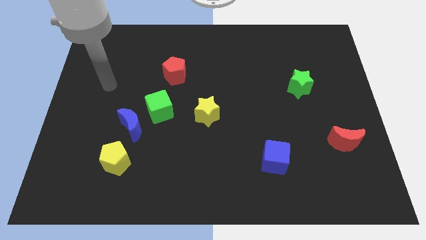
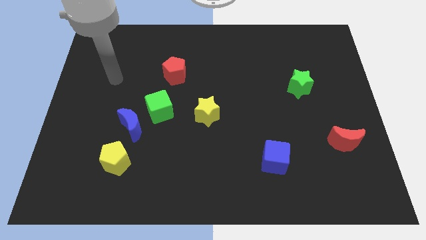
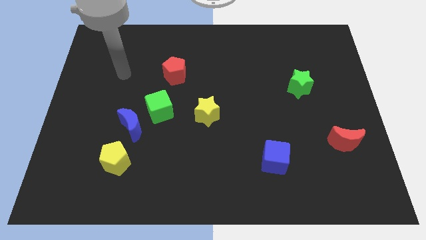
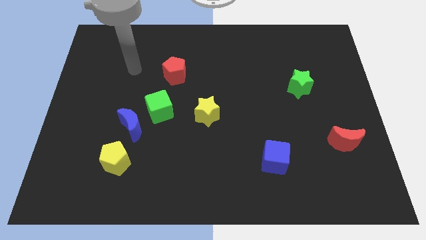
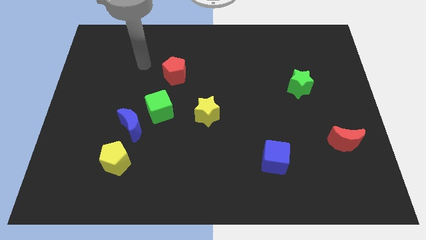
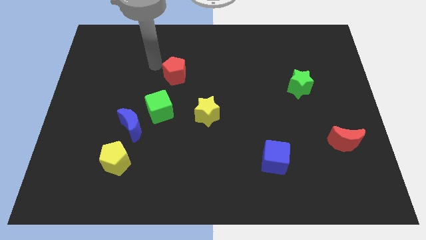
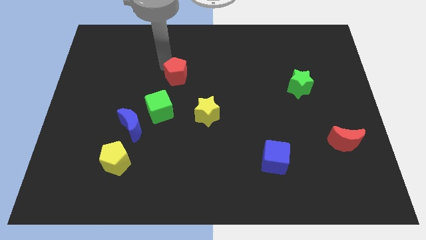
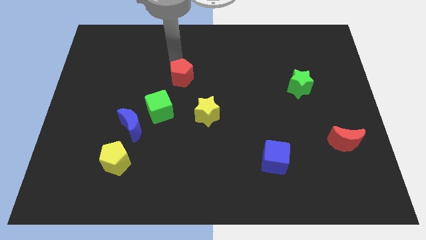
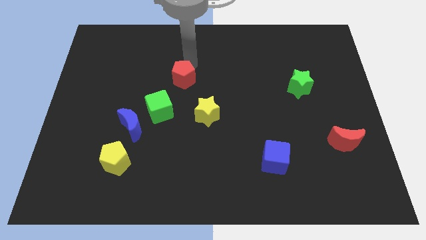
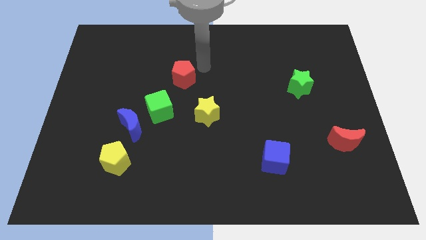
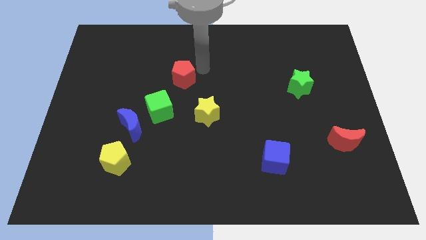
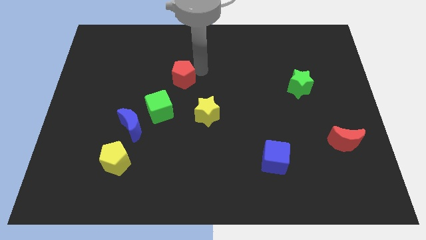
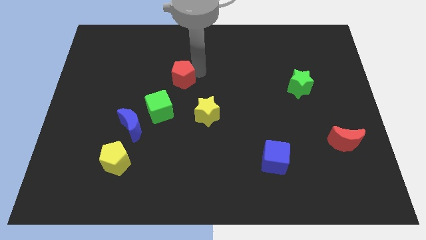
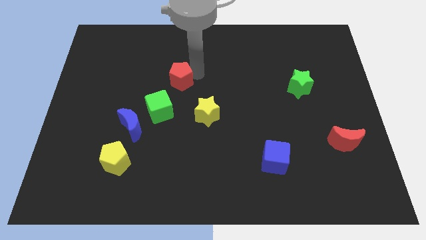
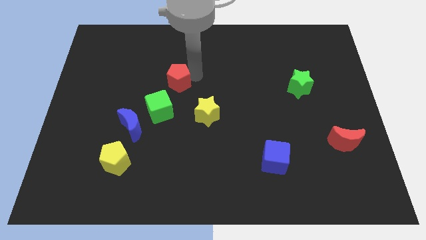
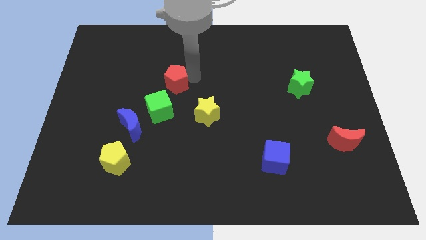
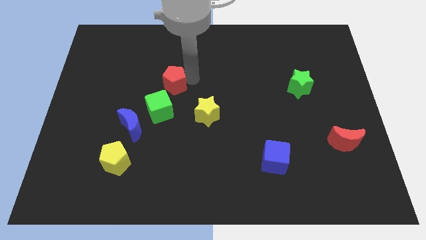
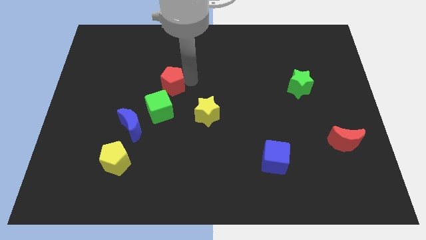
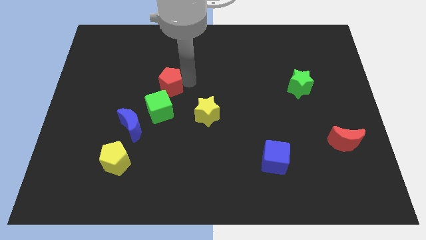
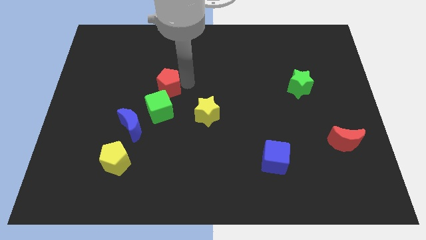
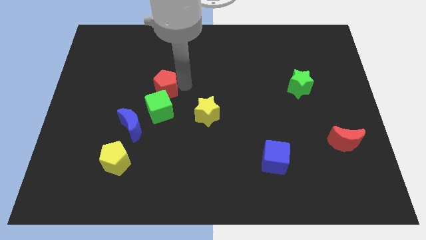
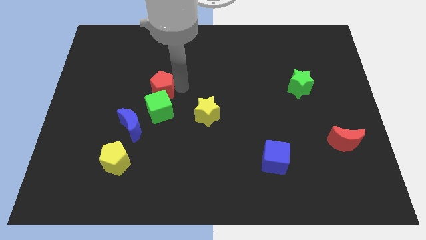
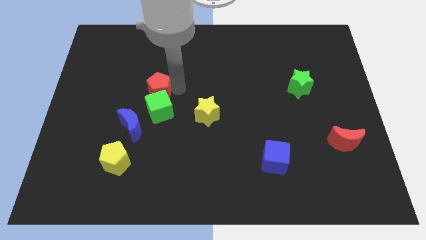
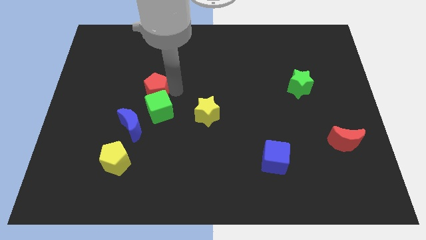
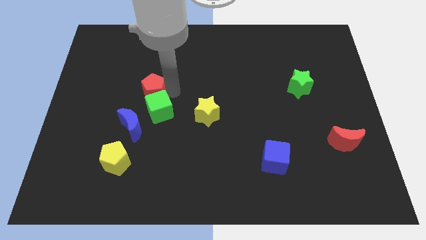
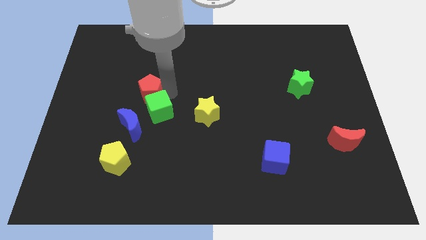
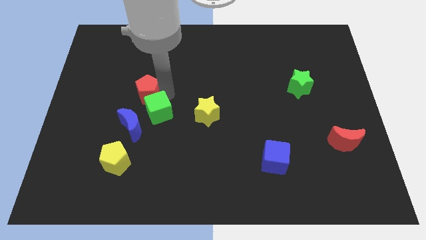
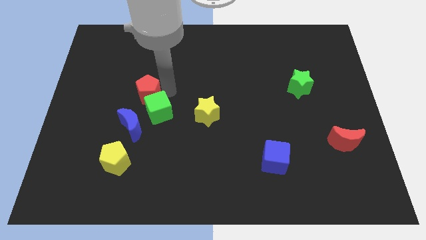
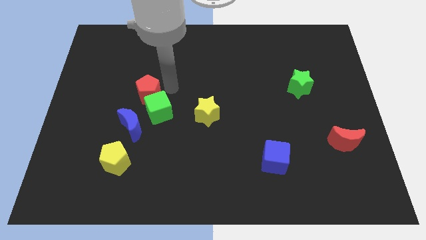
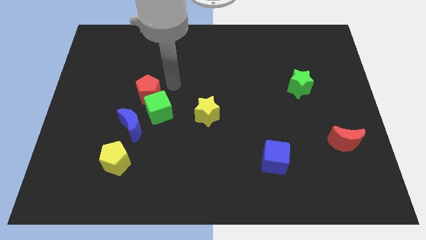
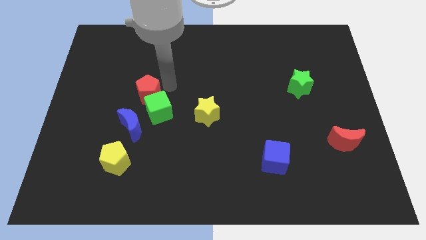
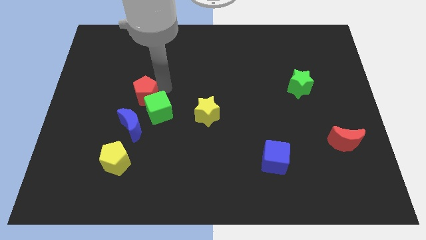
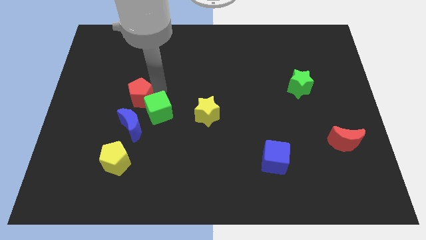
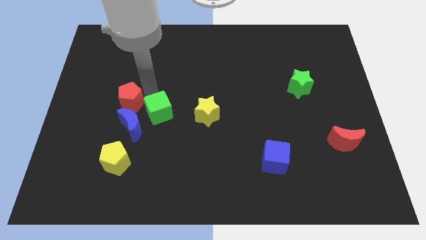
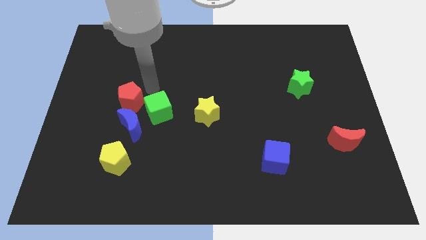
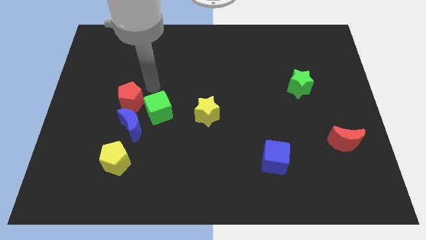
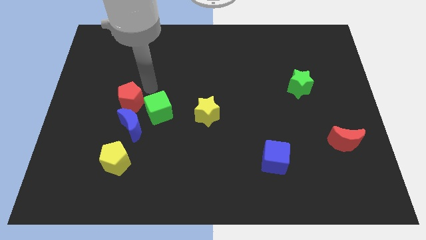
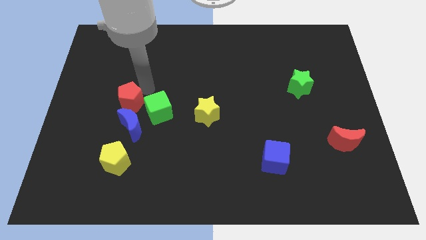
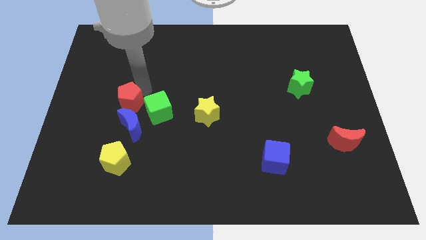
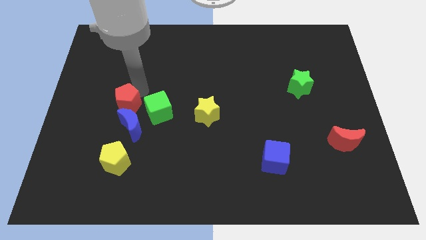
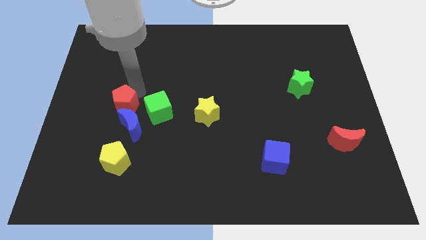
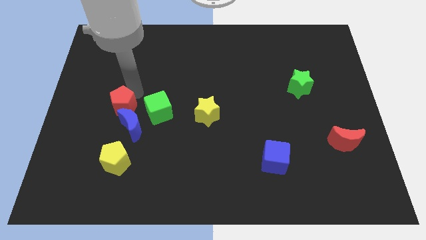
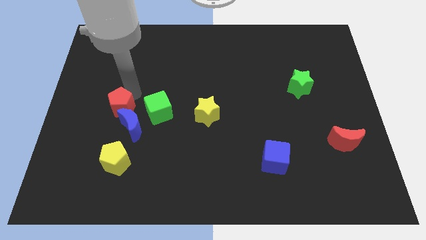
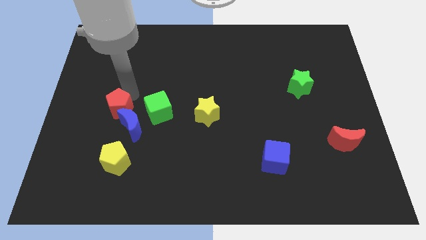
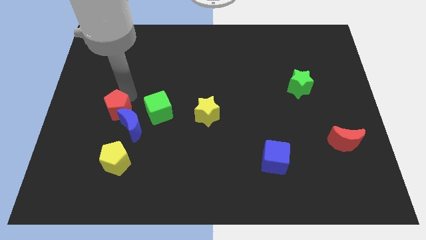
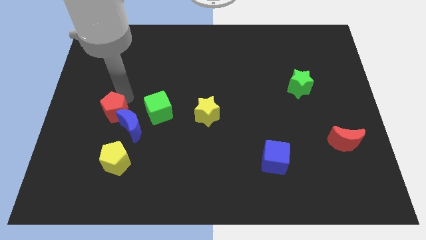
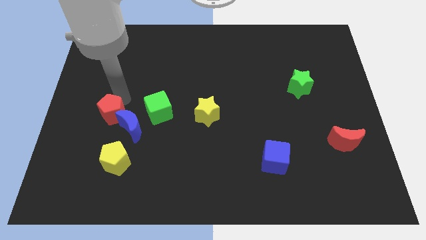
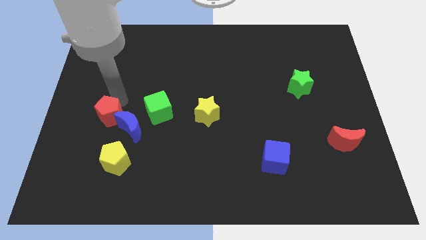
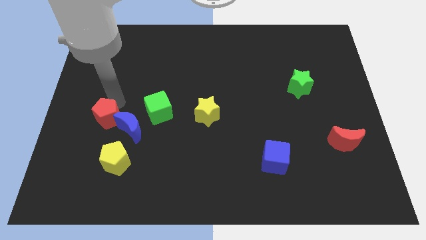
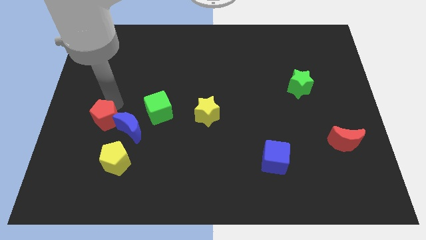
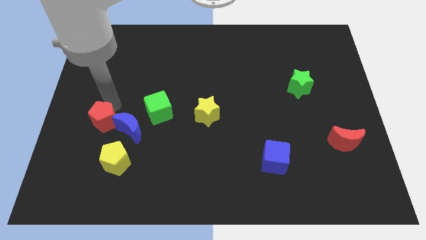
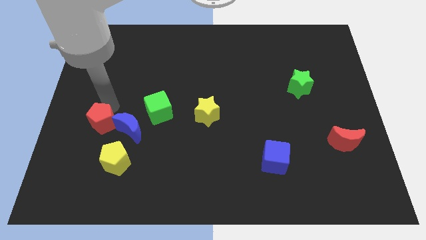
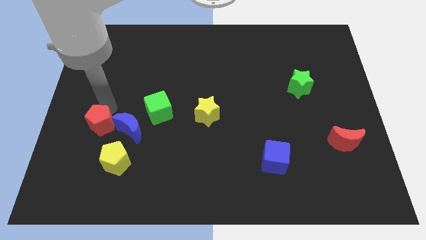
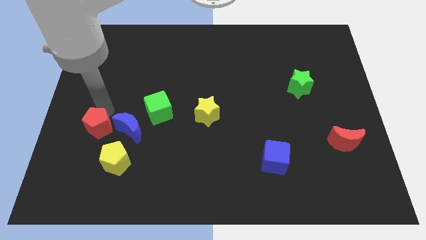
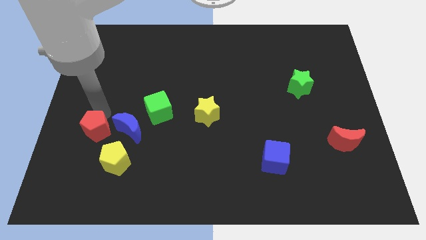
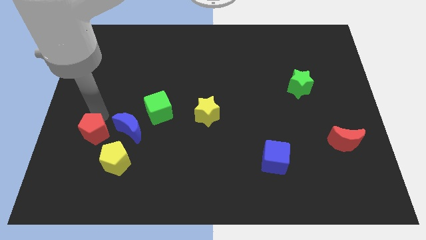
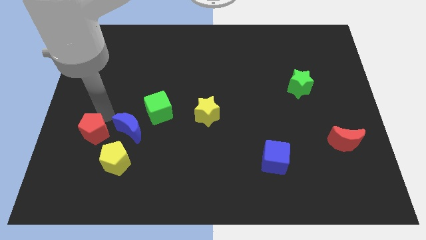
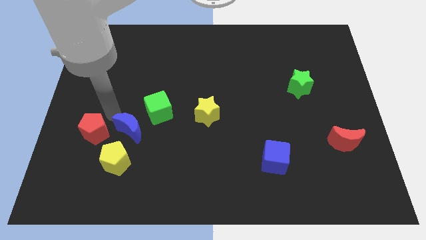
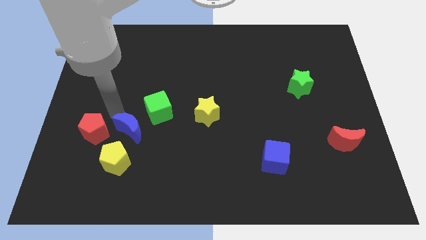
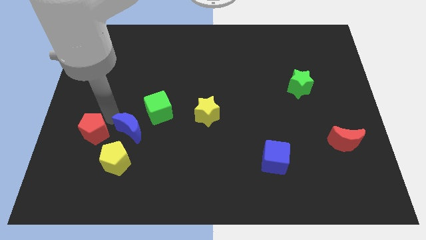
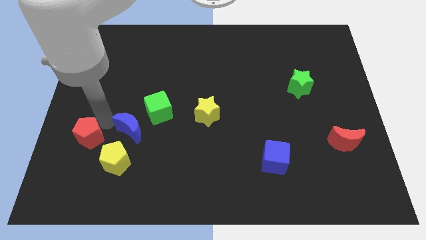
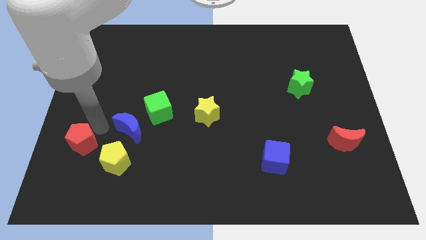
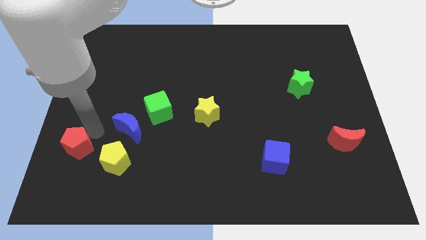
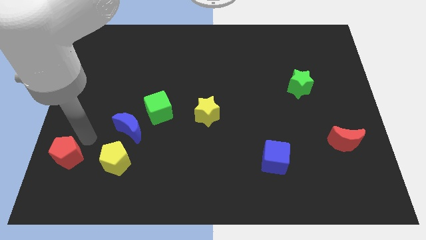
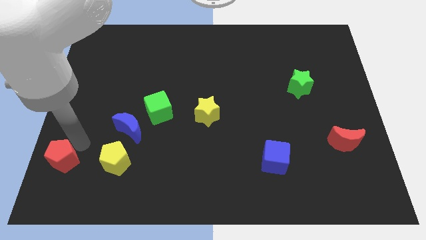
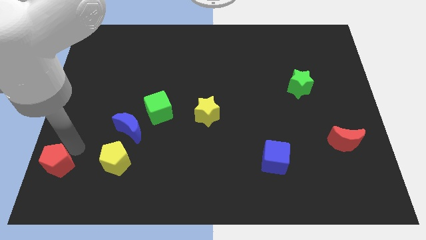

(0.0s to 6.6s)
move the red pentagon to the bottom left of the board

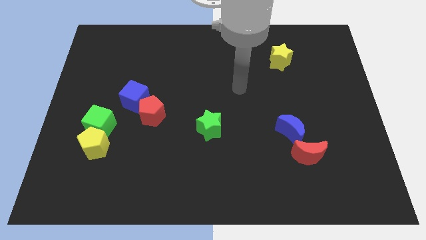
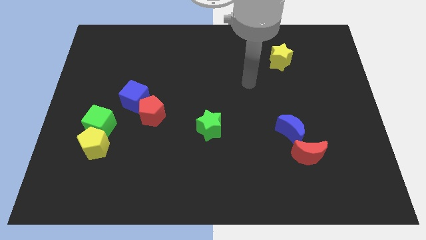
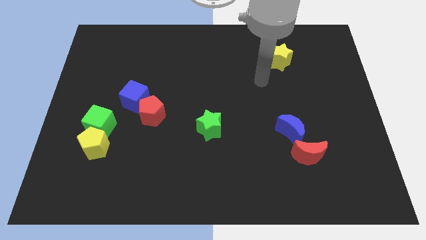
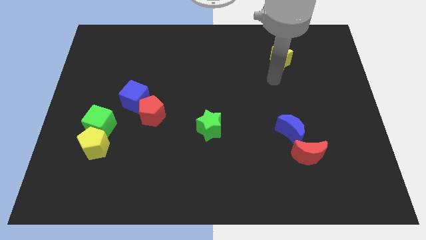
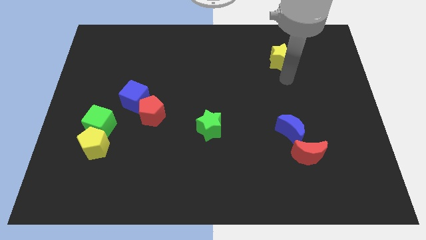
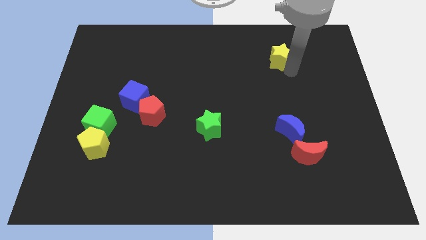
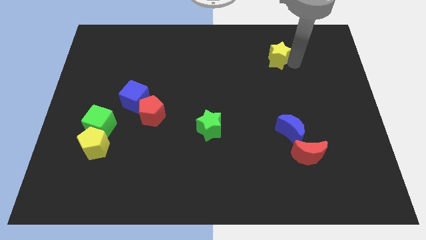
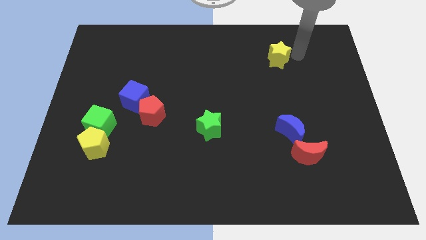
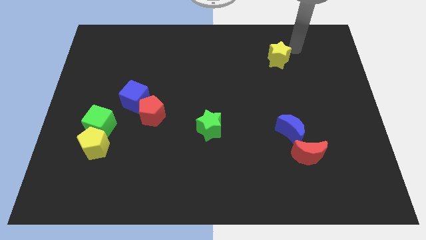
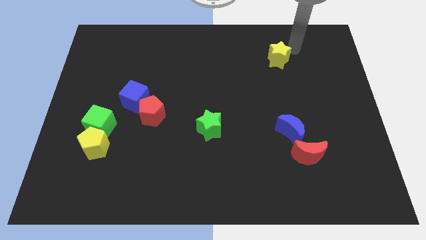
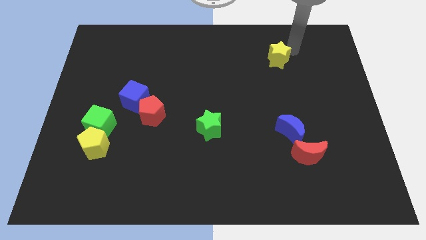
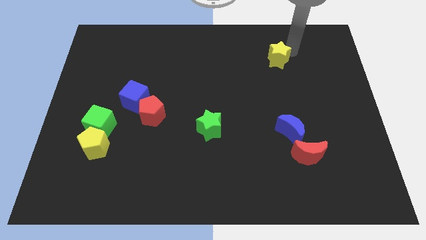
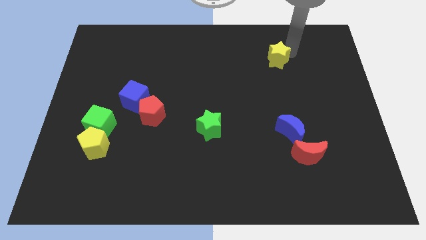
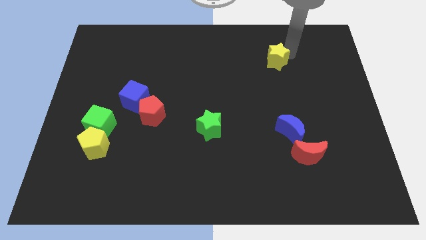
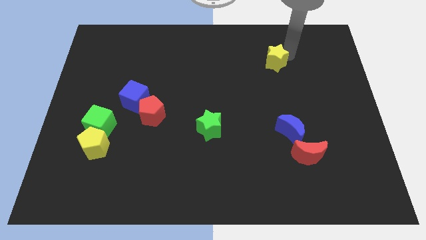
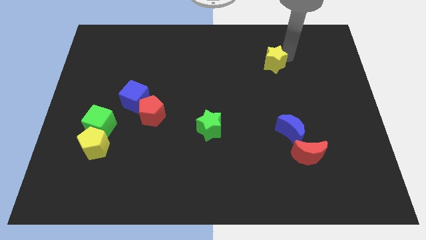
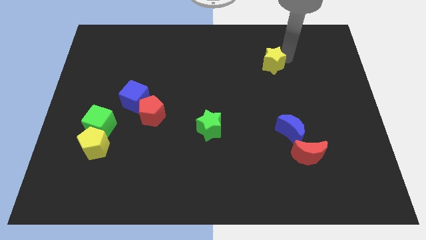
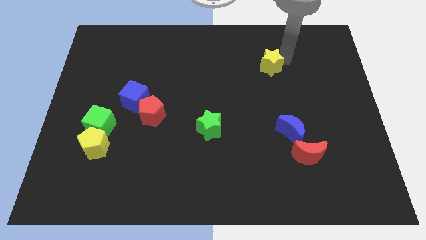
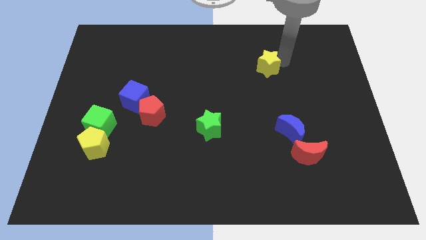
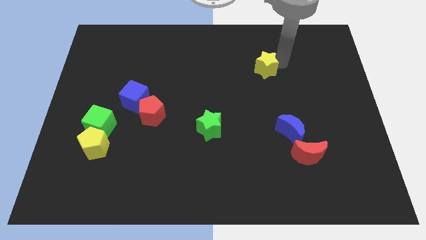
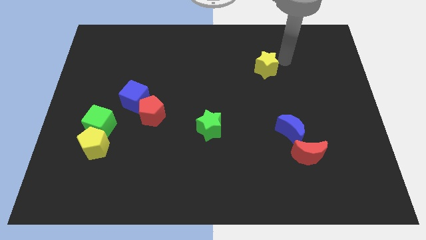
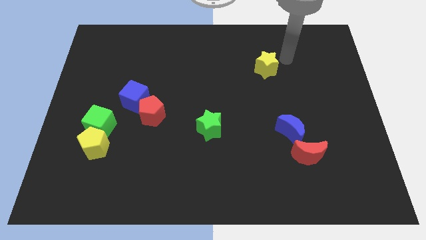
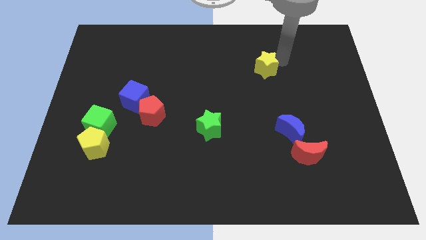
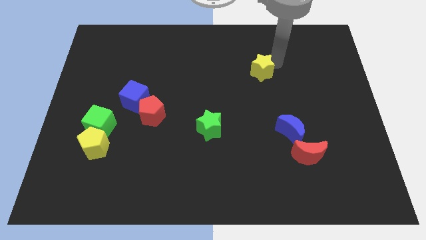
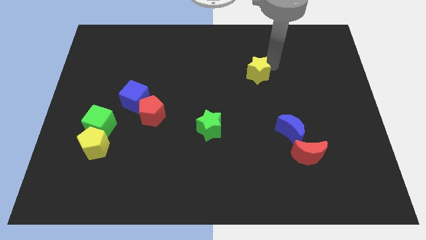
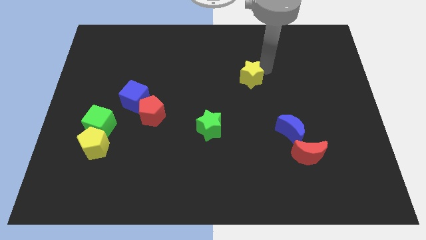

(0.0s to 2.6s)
push the yellow star to the middle
